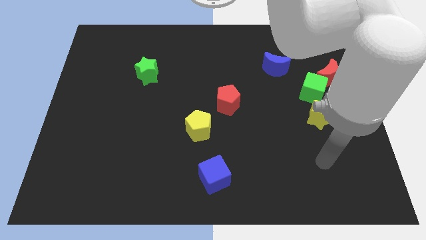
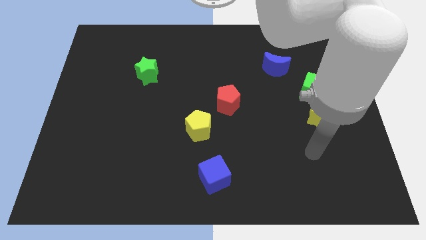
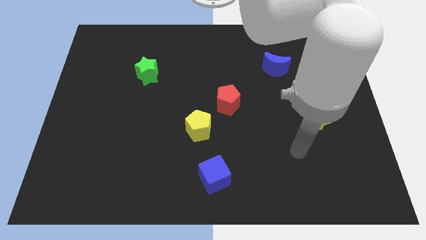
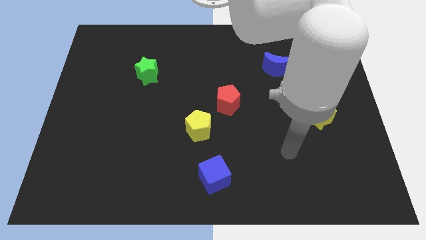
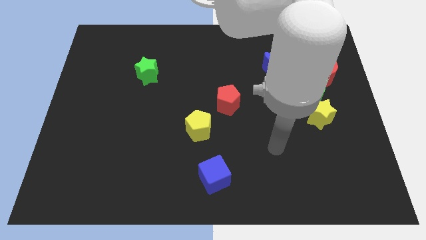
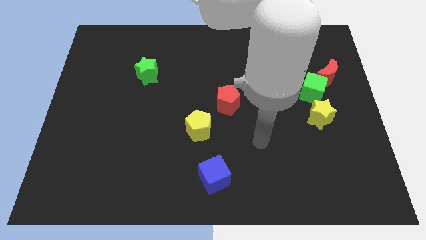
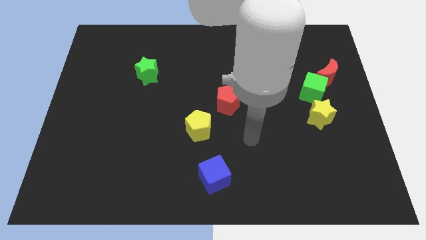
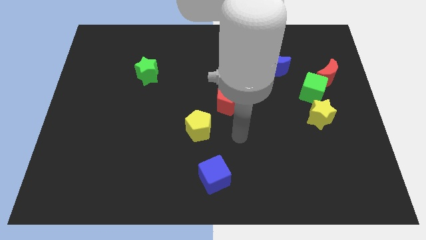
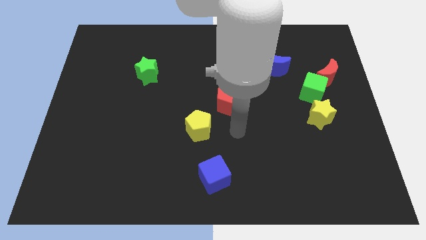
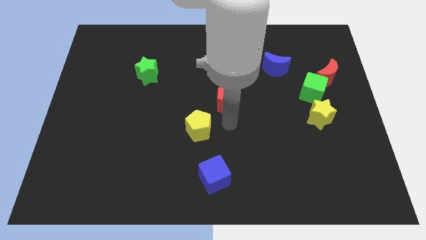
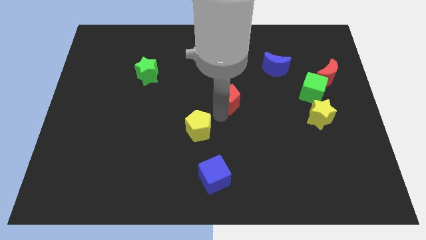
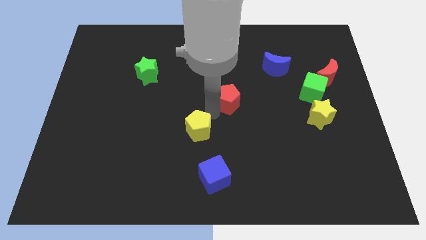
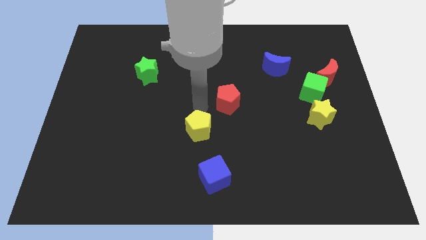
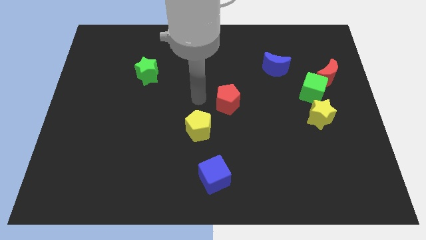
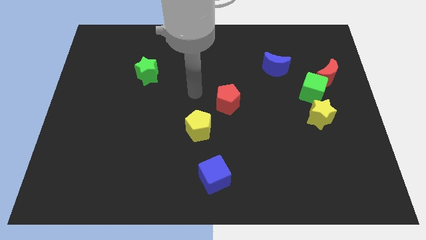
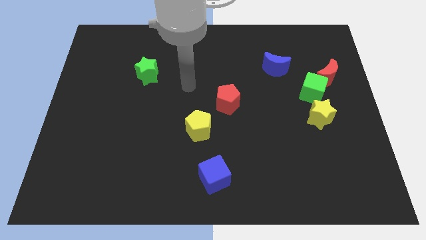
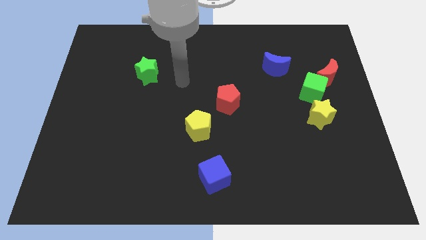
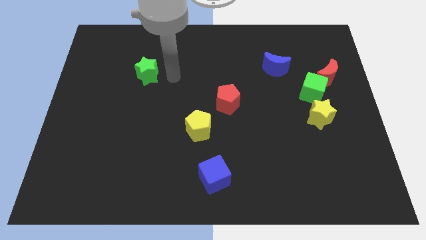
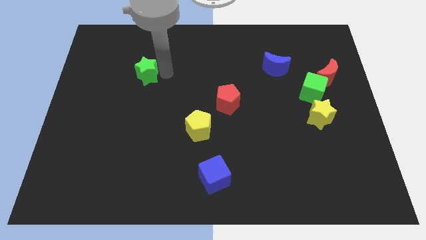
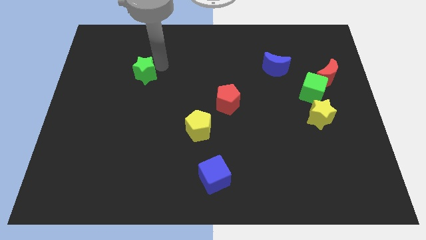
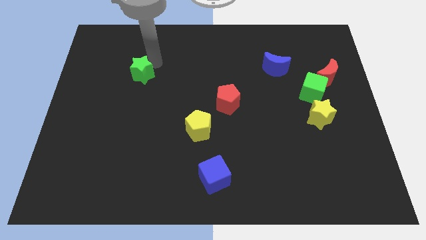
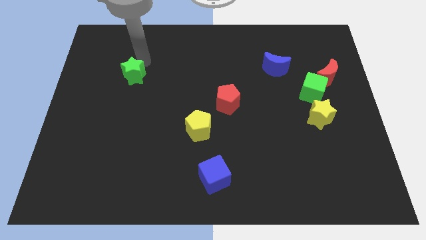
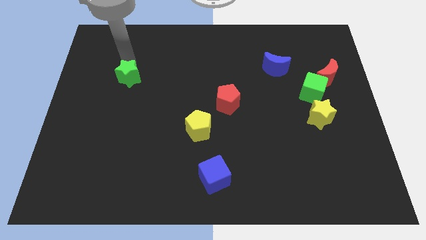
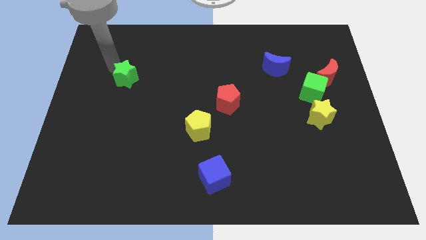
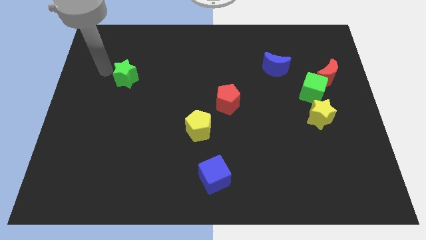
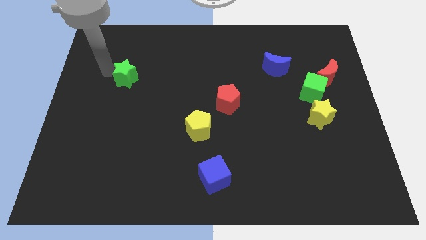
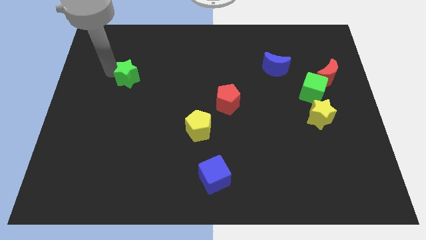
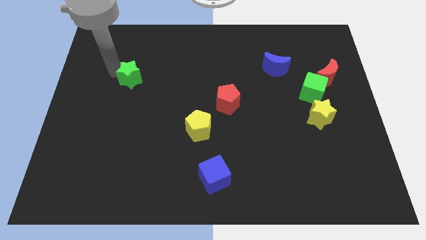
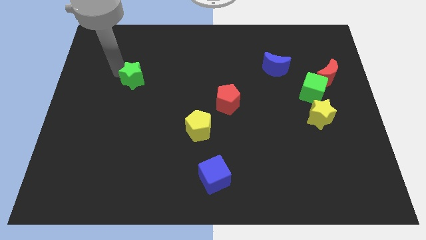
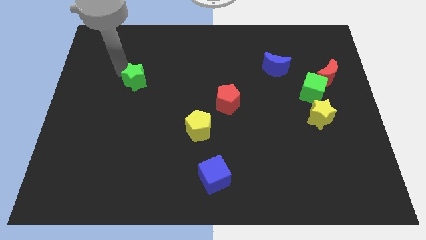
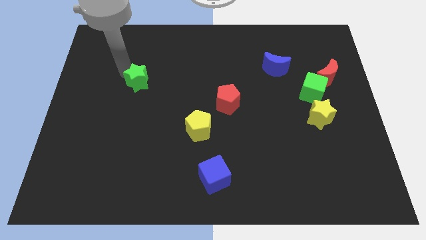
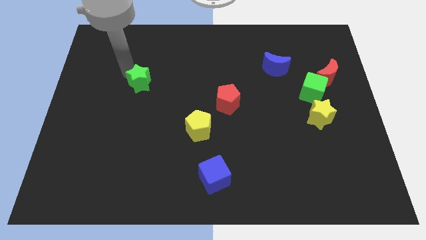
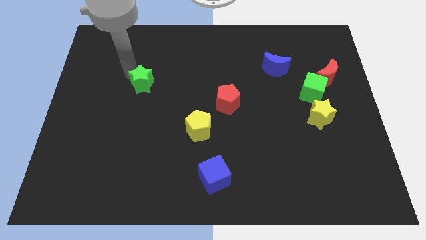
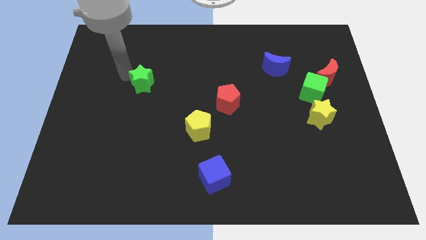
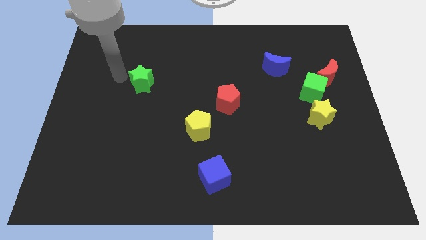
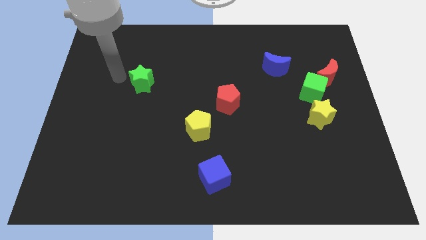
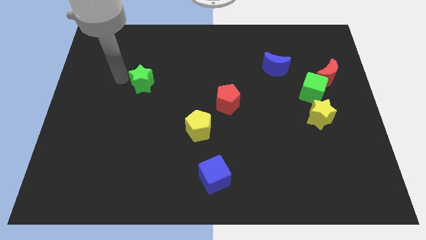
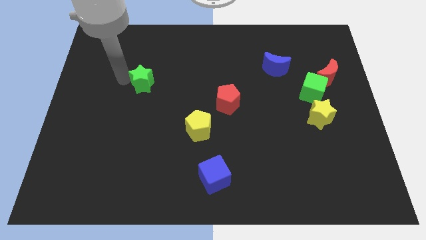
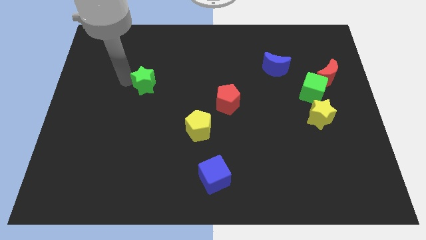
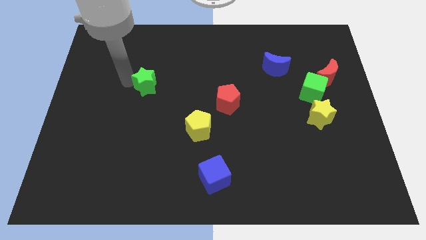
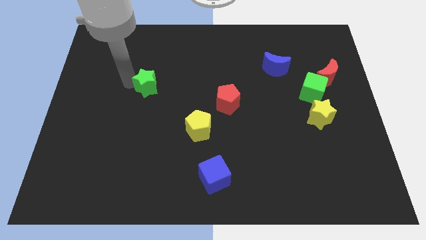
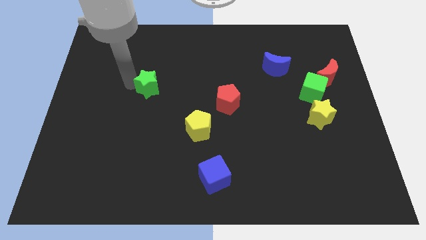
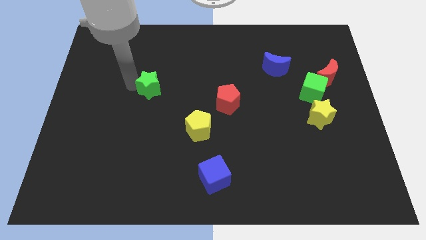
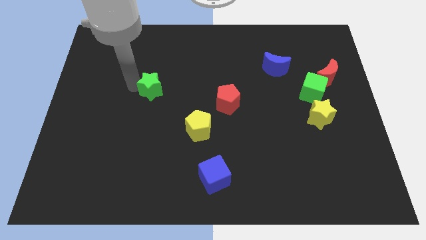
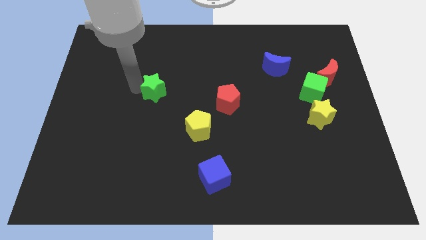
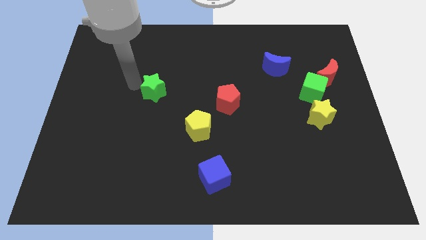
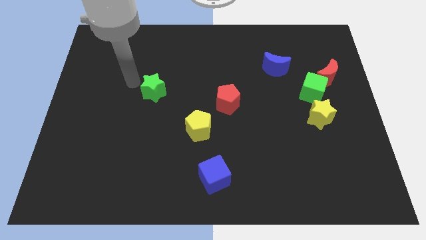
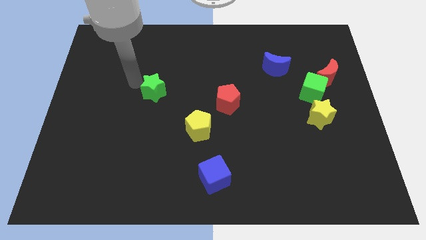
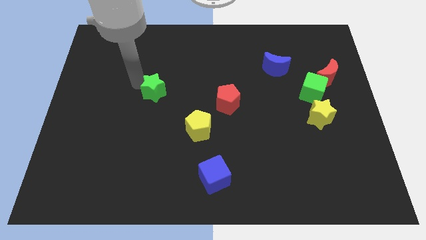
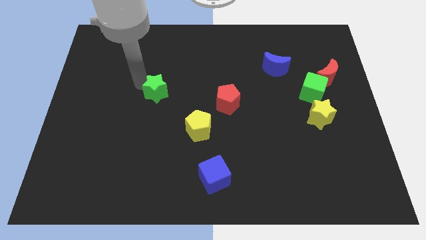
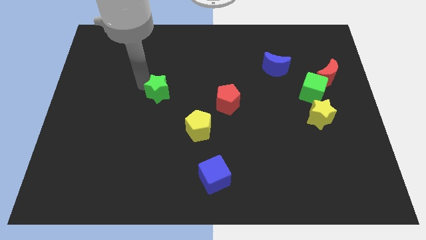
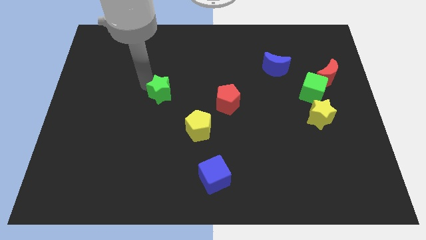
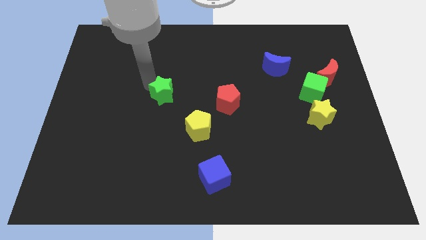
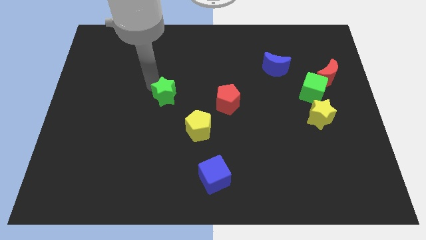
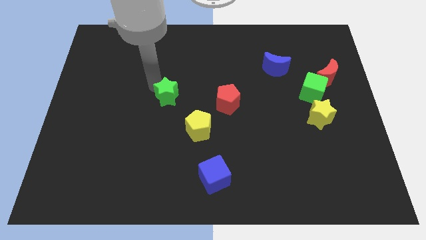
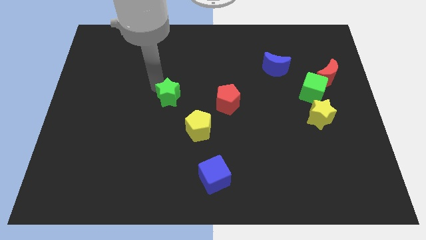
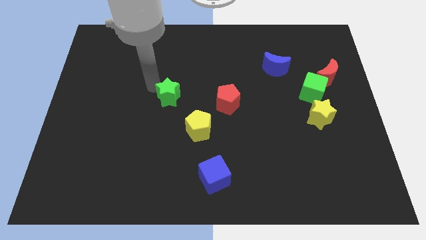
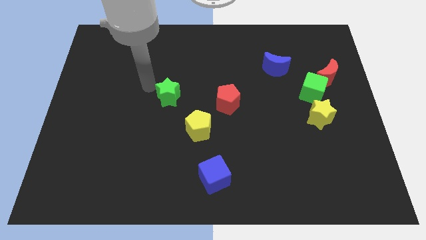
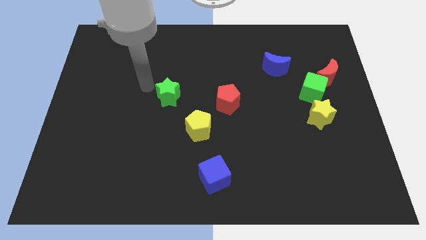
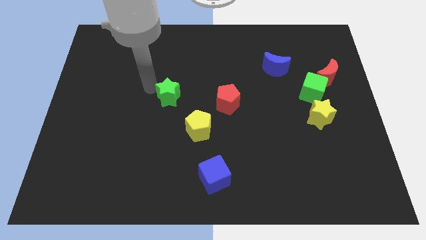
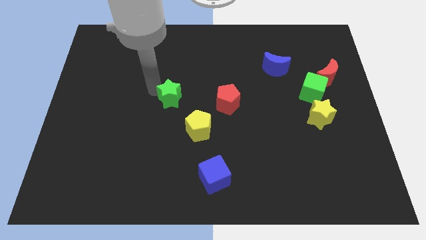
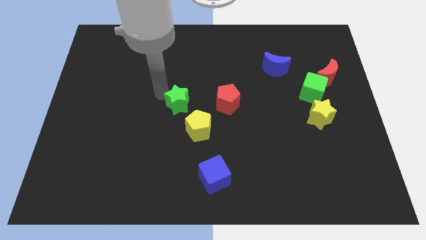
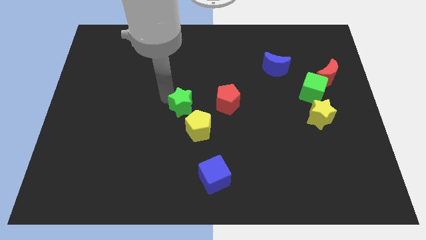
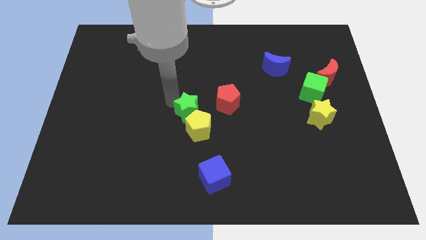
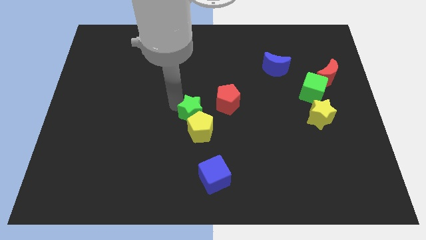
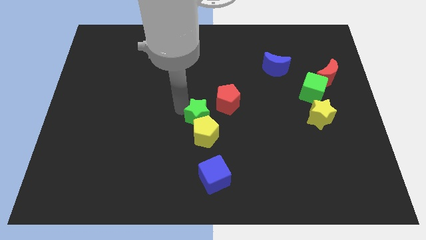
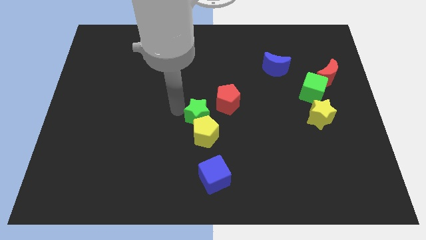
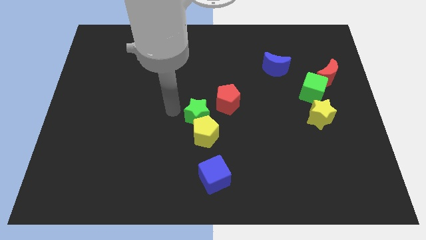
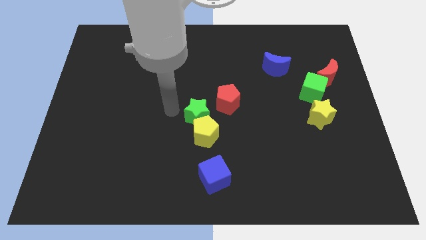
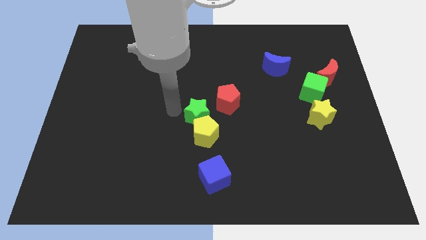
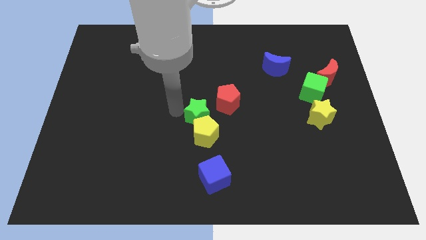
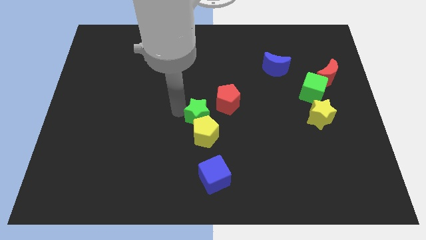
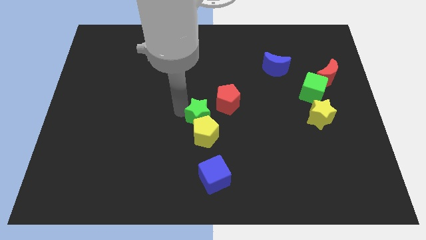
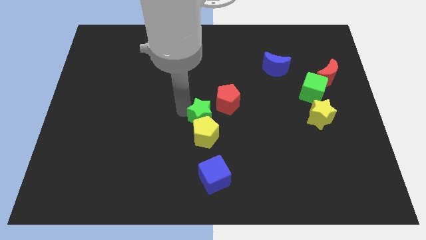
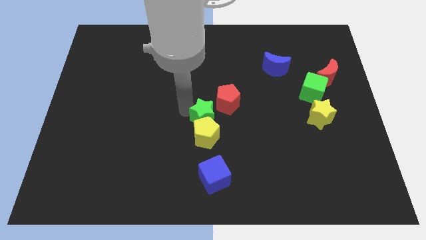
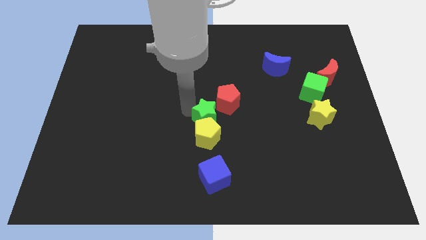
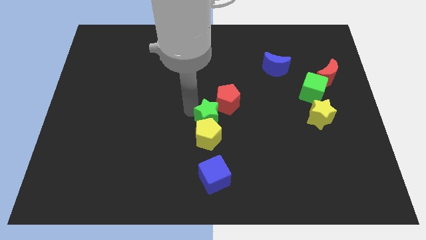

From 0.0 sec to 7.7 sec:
put the green star to the bottom of the red pentagon
